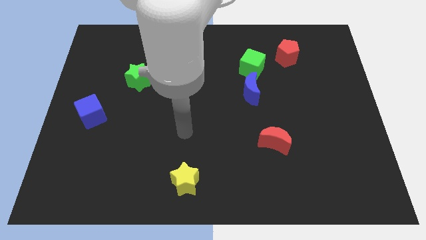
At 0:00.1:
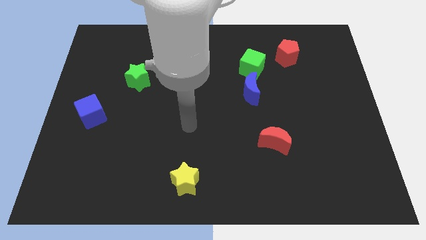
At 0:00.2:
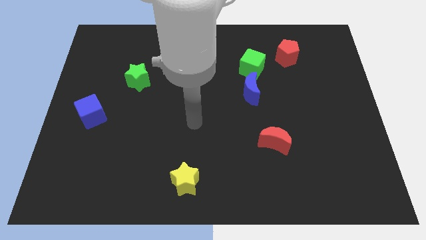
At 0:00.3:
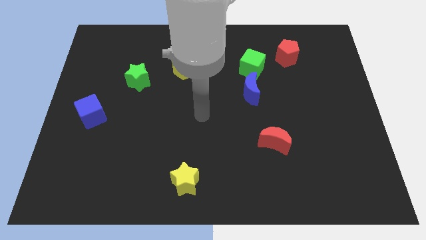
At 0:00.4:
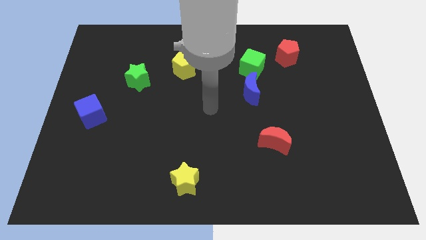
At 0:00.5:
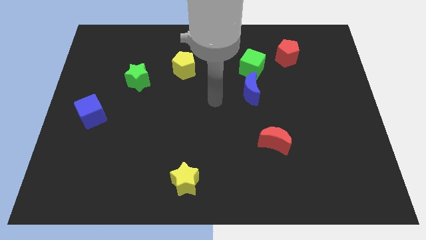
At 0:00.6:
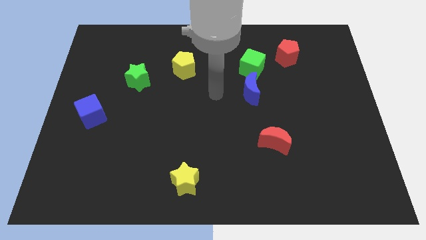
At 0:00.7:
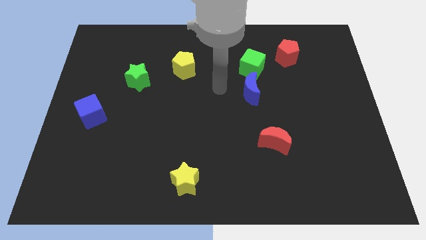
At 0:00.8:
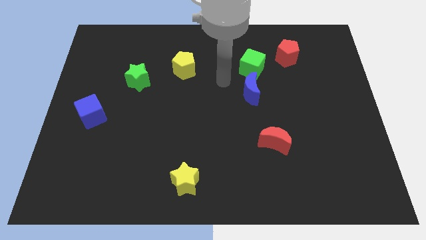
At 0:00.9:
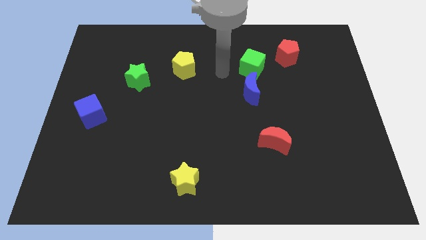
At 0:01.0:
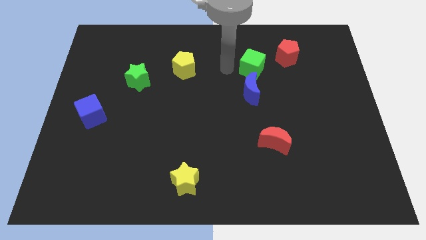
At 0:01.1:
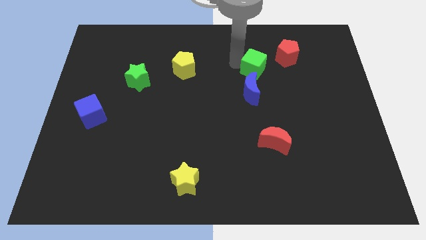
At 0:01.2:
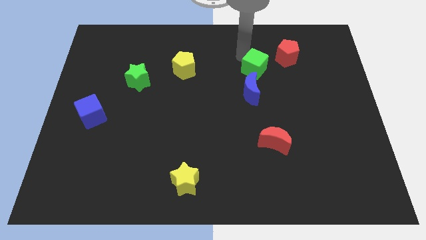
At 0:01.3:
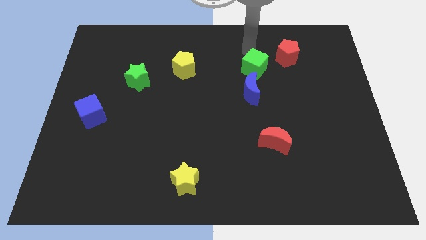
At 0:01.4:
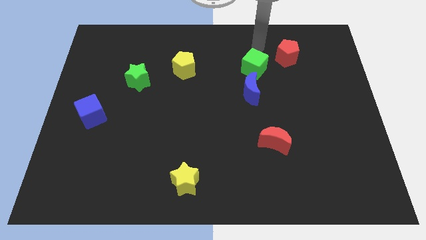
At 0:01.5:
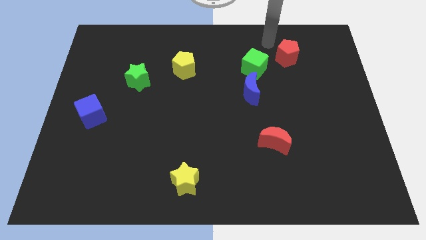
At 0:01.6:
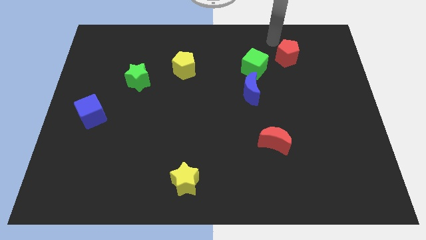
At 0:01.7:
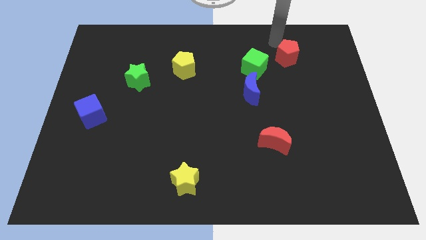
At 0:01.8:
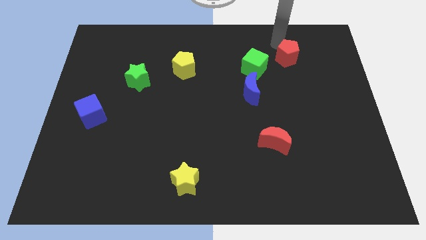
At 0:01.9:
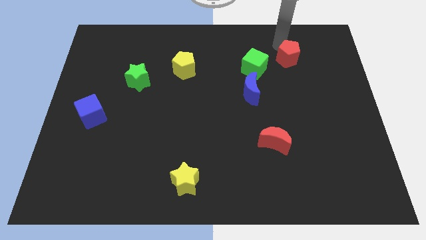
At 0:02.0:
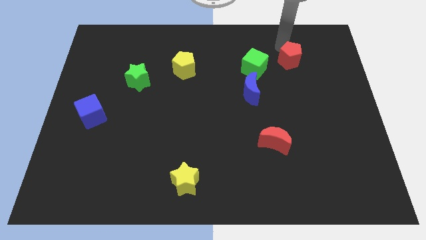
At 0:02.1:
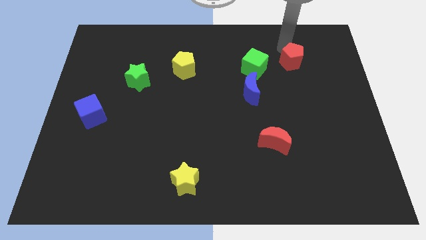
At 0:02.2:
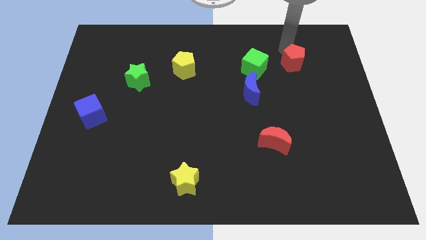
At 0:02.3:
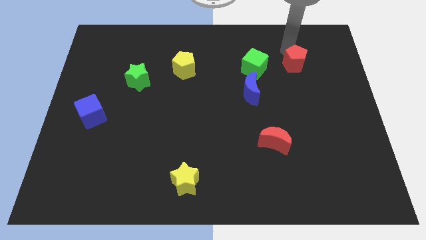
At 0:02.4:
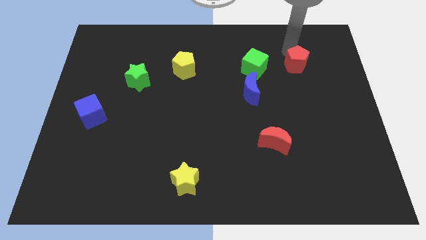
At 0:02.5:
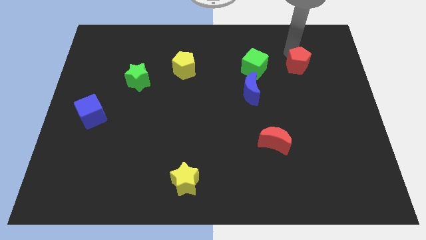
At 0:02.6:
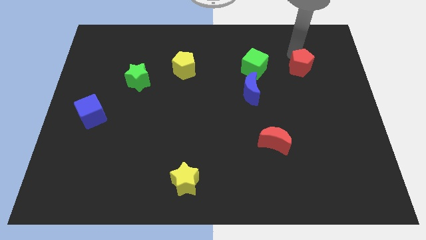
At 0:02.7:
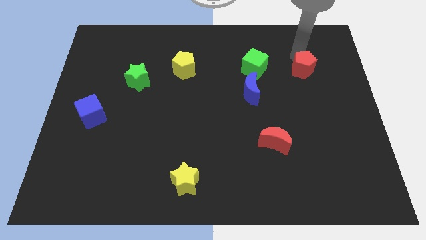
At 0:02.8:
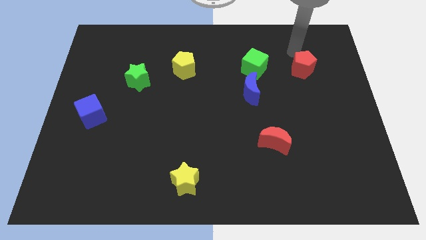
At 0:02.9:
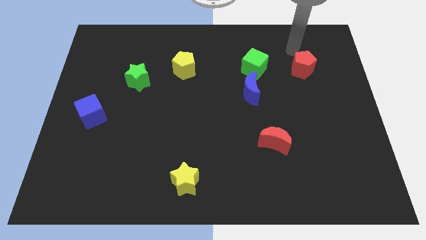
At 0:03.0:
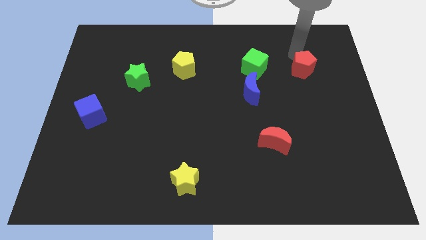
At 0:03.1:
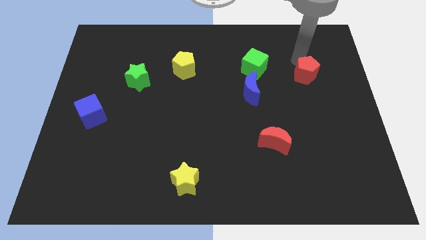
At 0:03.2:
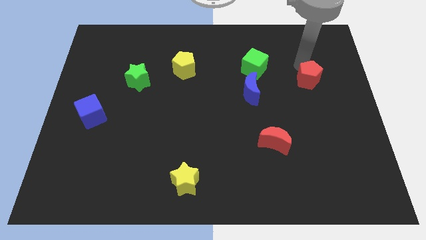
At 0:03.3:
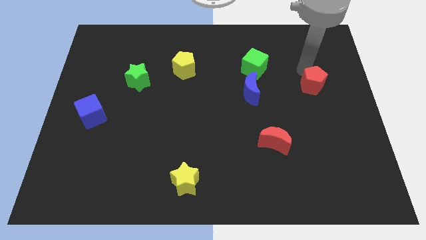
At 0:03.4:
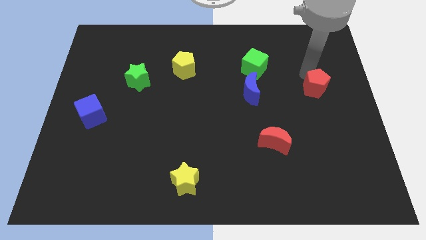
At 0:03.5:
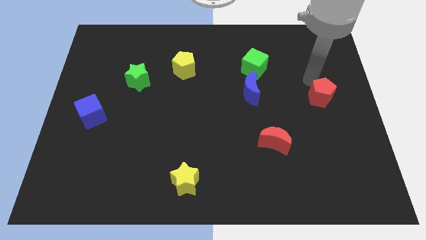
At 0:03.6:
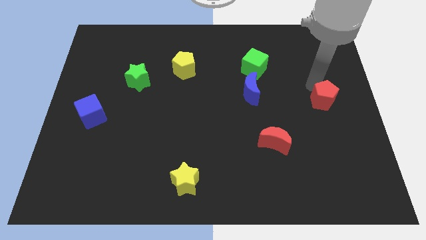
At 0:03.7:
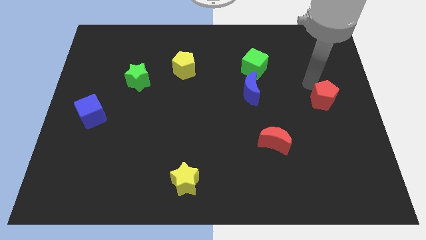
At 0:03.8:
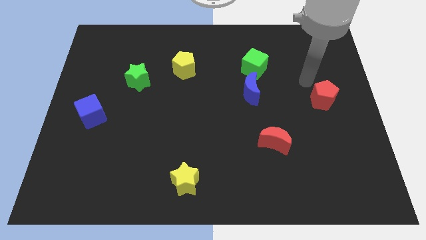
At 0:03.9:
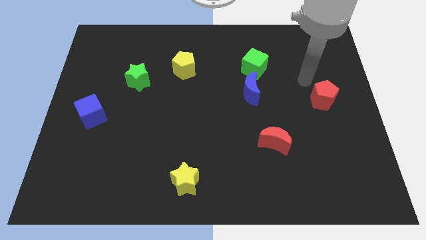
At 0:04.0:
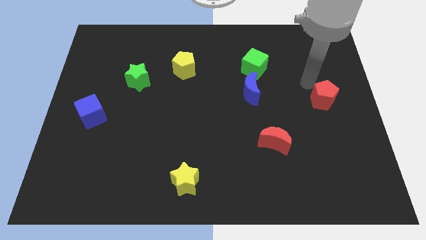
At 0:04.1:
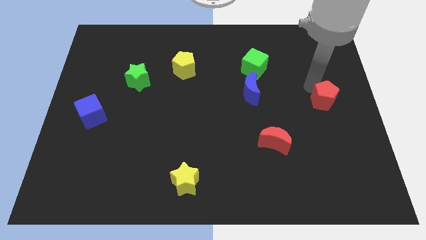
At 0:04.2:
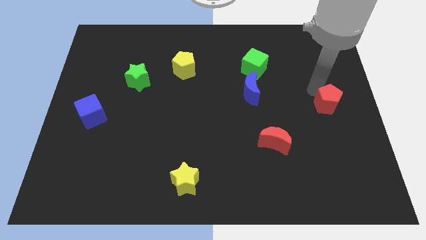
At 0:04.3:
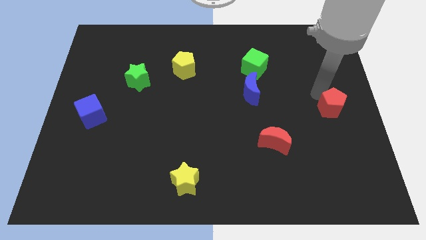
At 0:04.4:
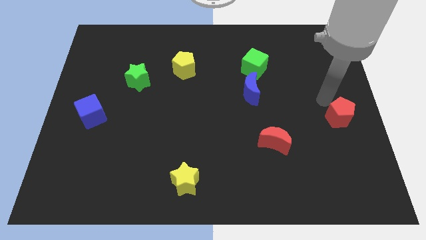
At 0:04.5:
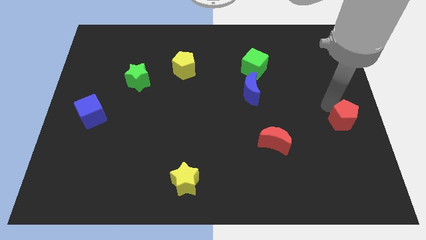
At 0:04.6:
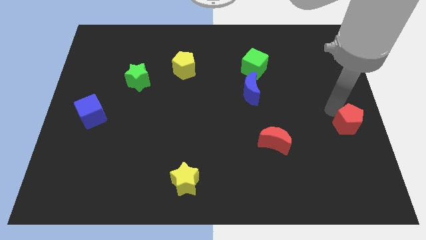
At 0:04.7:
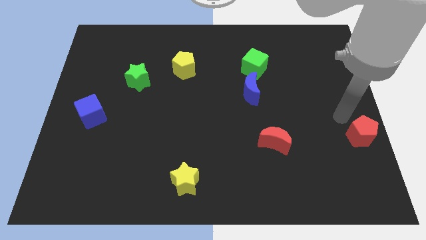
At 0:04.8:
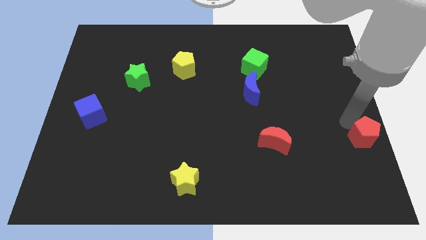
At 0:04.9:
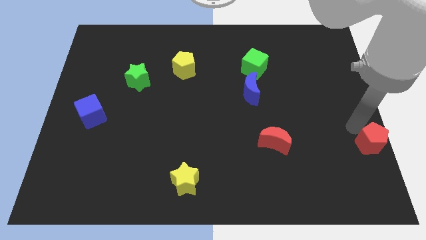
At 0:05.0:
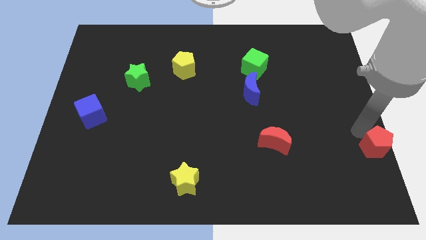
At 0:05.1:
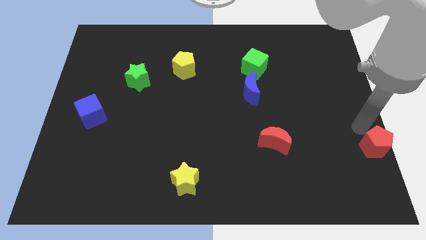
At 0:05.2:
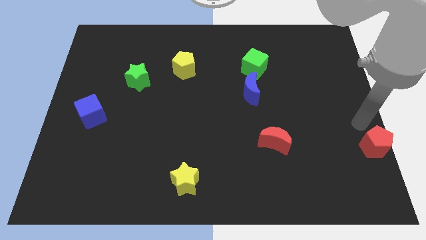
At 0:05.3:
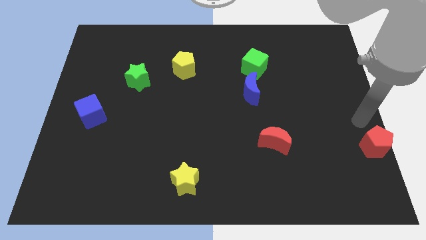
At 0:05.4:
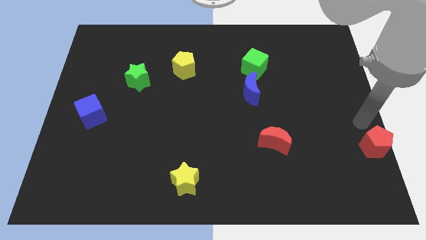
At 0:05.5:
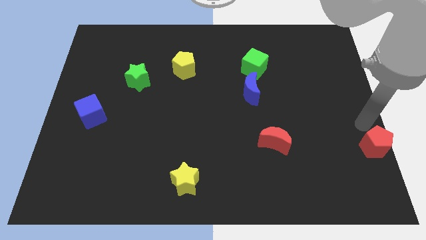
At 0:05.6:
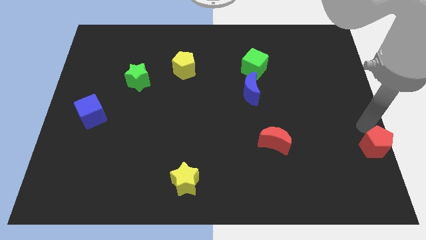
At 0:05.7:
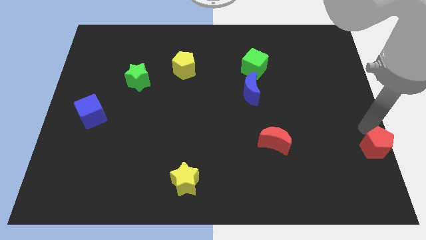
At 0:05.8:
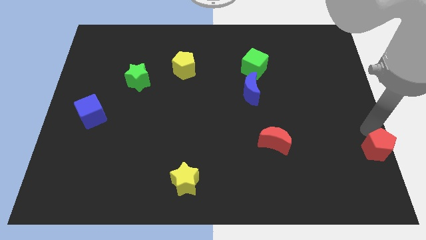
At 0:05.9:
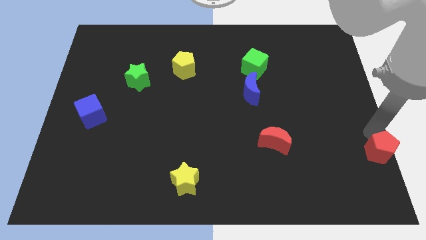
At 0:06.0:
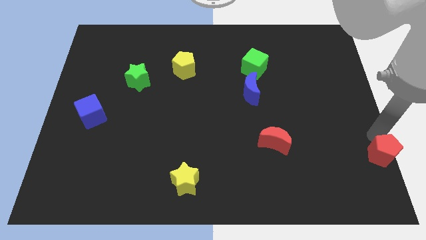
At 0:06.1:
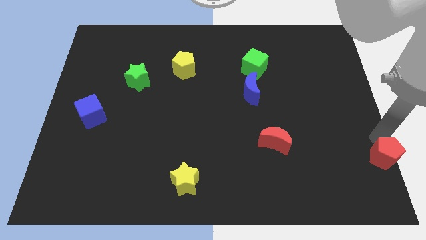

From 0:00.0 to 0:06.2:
put the red pentagon to the bottom right corner
